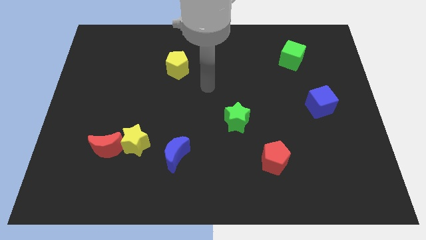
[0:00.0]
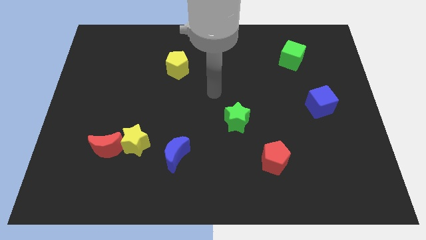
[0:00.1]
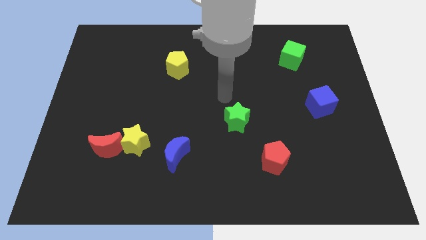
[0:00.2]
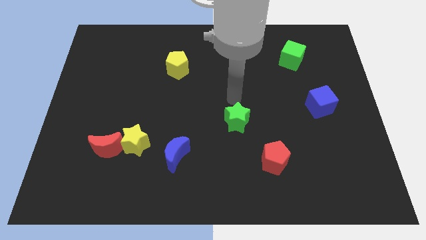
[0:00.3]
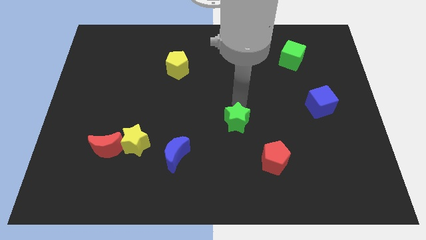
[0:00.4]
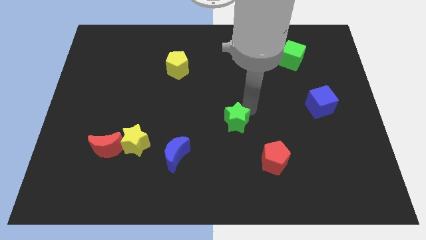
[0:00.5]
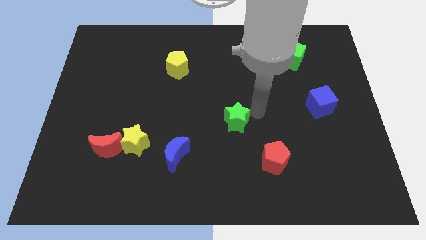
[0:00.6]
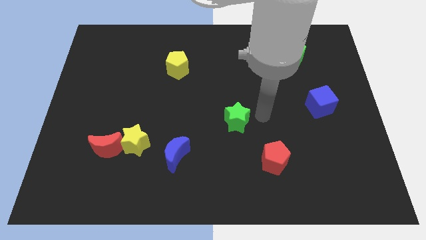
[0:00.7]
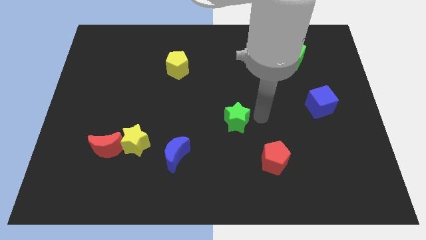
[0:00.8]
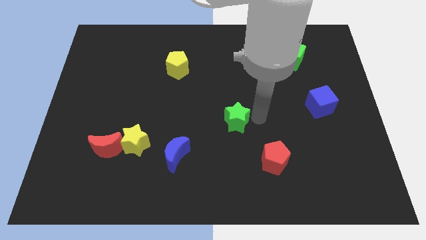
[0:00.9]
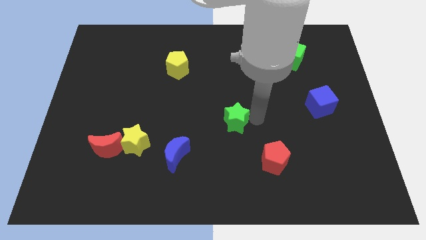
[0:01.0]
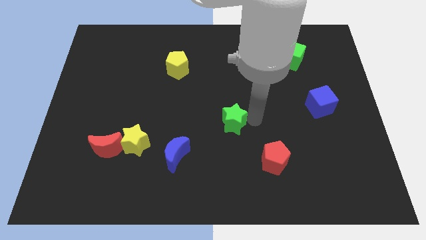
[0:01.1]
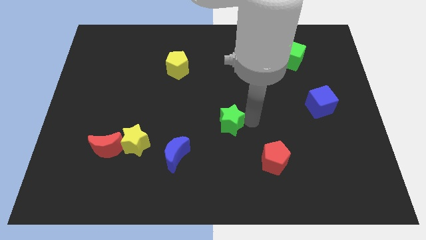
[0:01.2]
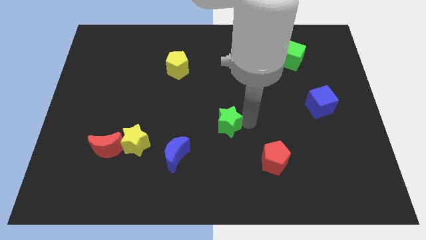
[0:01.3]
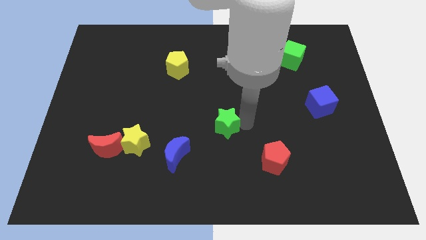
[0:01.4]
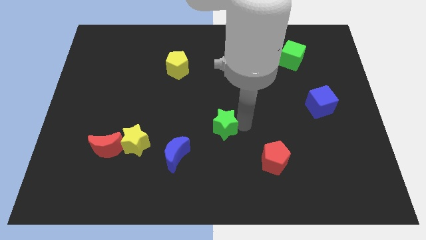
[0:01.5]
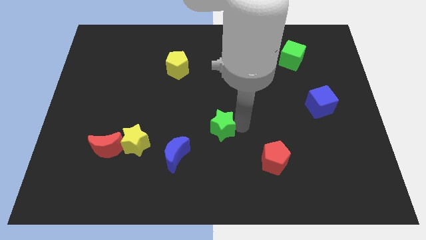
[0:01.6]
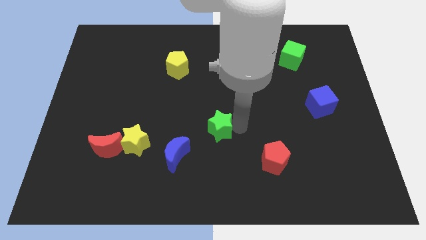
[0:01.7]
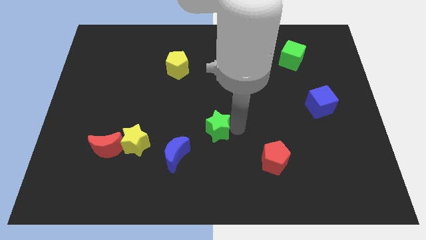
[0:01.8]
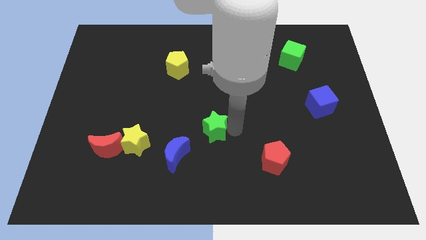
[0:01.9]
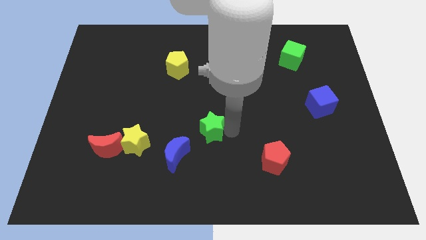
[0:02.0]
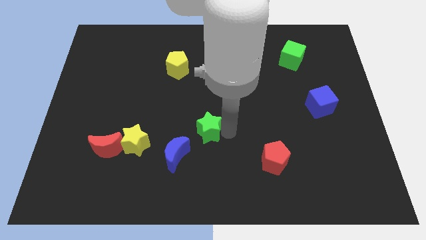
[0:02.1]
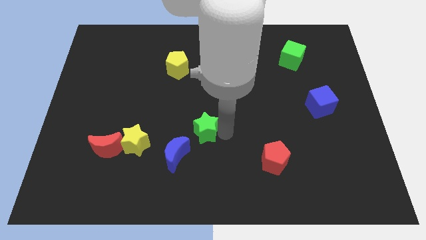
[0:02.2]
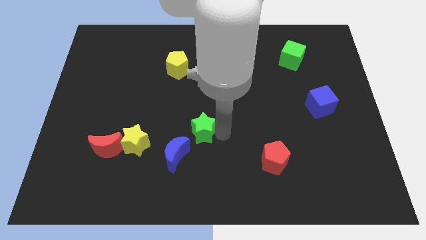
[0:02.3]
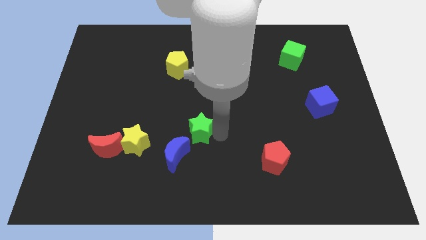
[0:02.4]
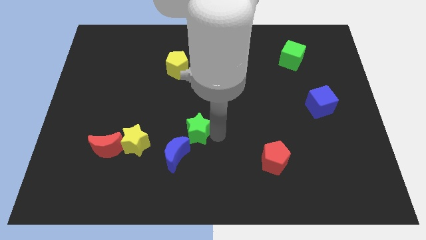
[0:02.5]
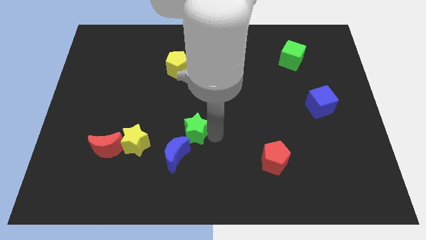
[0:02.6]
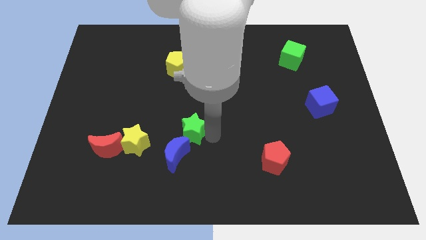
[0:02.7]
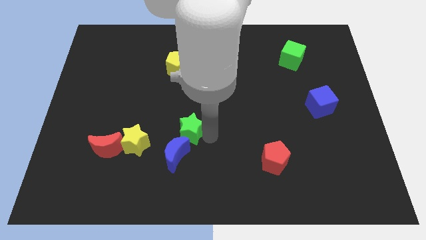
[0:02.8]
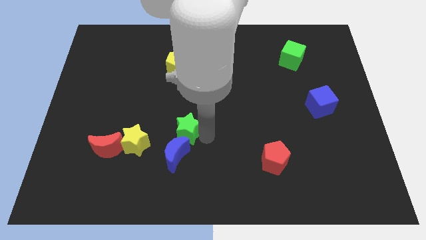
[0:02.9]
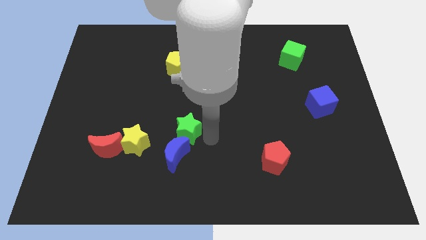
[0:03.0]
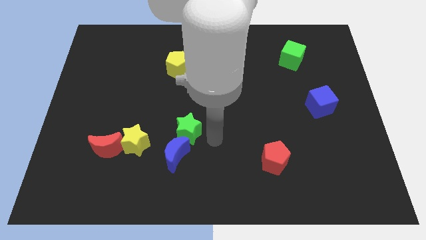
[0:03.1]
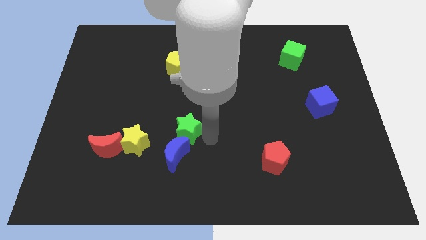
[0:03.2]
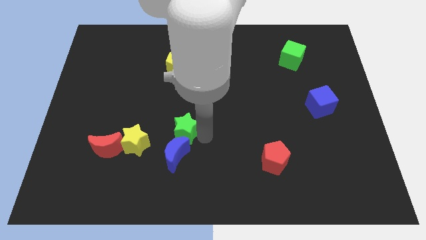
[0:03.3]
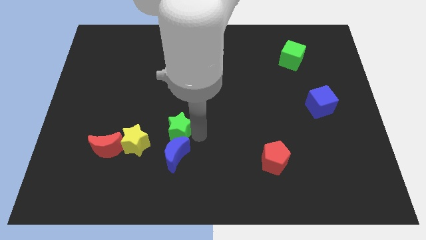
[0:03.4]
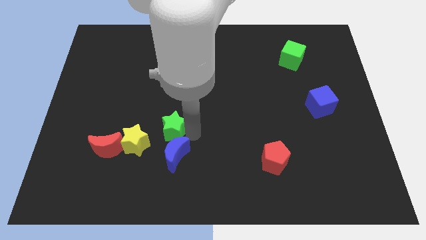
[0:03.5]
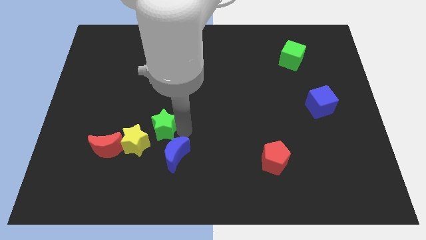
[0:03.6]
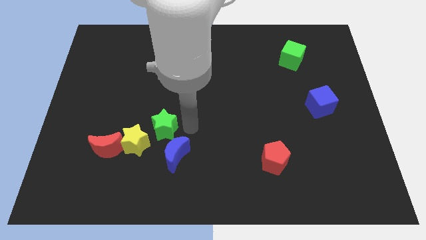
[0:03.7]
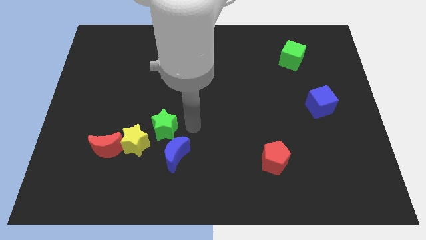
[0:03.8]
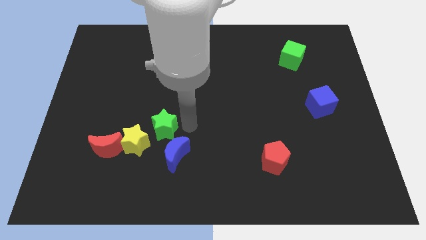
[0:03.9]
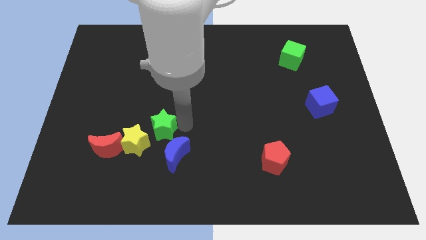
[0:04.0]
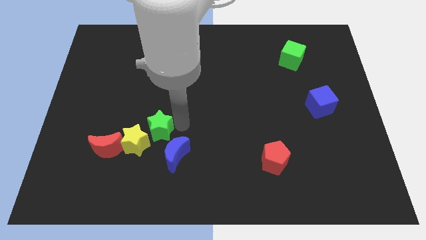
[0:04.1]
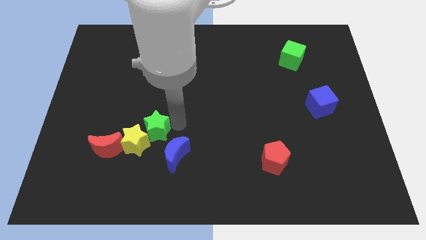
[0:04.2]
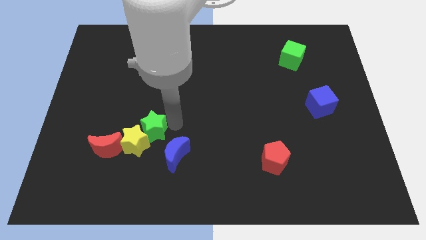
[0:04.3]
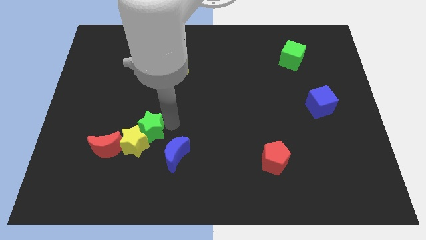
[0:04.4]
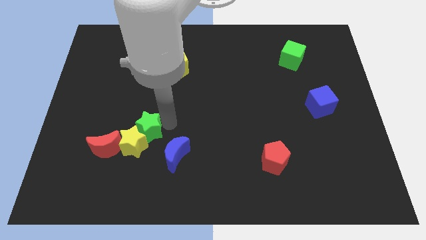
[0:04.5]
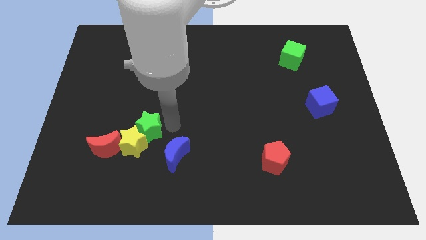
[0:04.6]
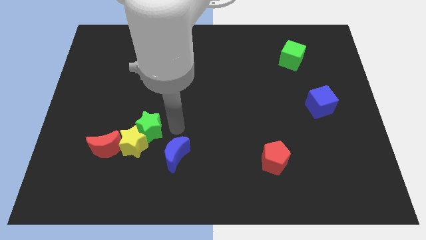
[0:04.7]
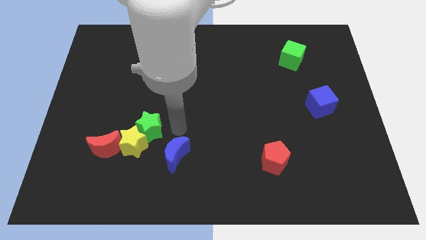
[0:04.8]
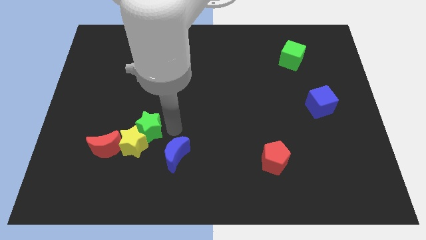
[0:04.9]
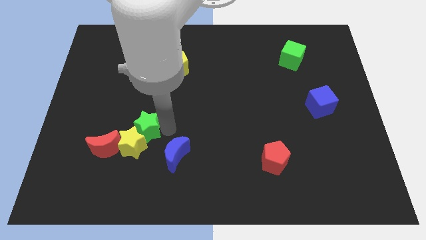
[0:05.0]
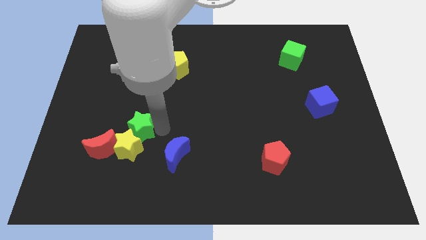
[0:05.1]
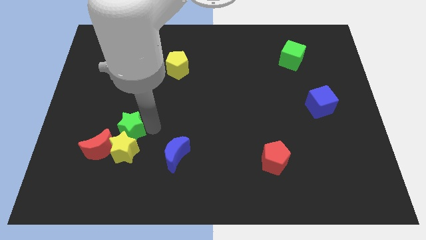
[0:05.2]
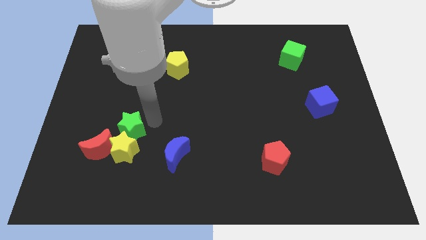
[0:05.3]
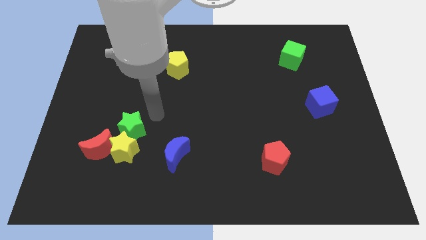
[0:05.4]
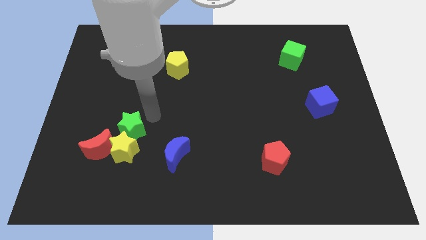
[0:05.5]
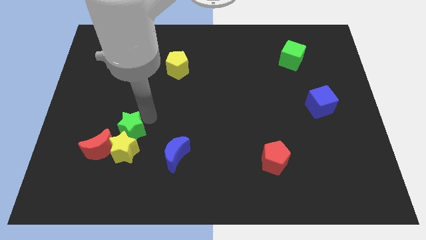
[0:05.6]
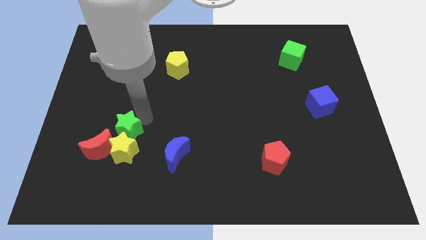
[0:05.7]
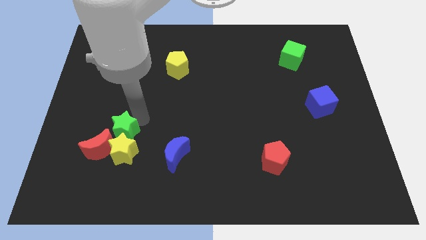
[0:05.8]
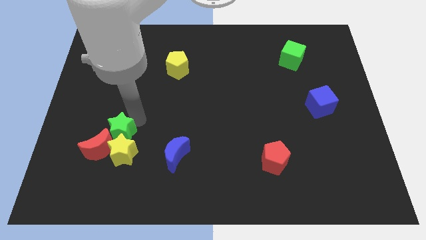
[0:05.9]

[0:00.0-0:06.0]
slide the green star next to the red moon

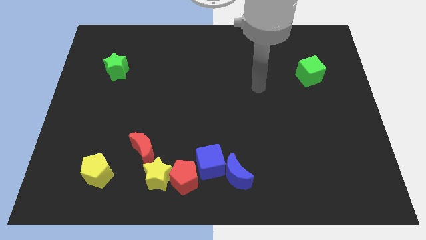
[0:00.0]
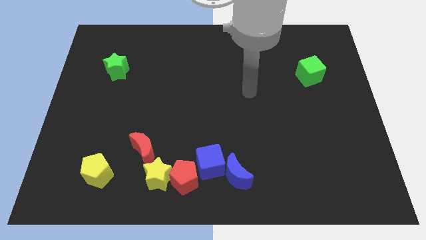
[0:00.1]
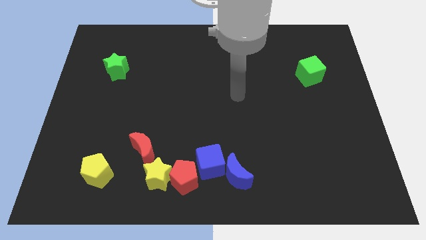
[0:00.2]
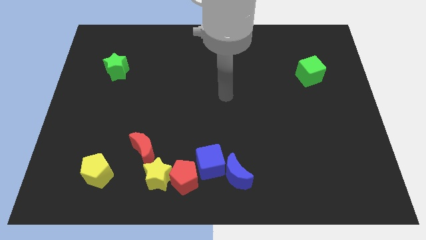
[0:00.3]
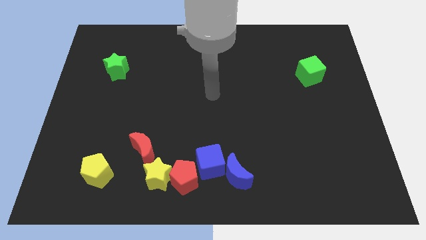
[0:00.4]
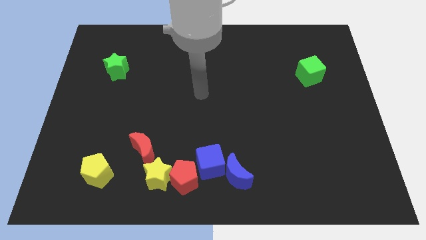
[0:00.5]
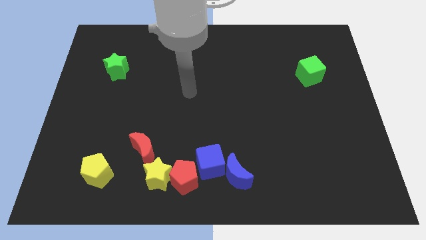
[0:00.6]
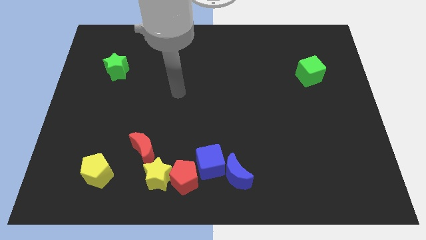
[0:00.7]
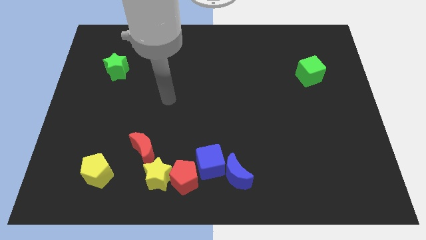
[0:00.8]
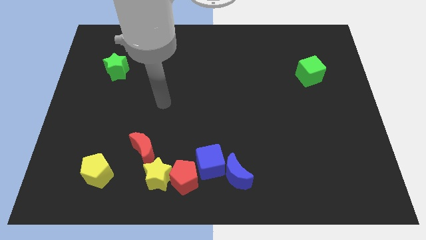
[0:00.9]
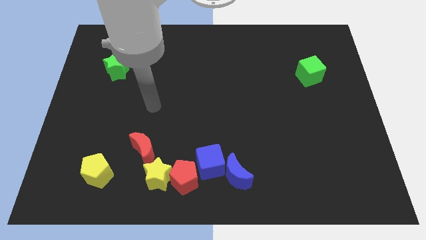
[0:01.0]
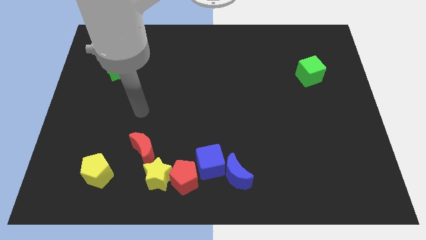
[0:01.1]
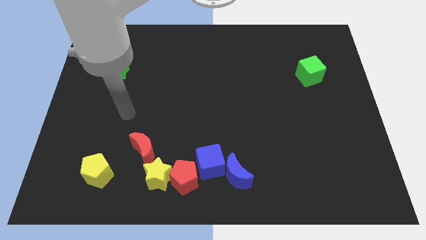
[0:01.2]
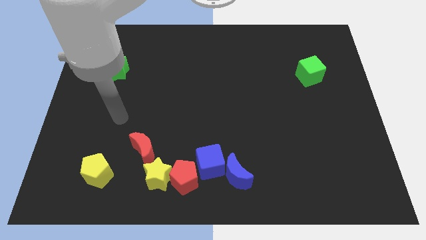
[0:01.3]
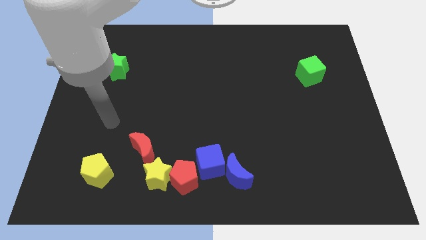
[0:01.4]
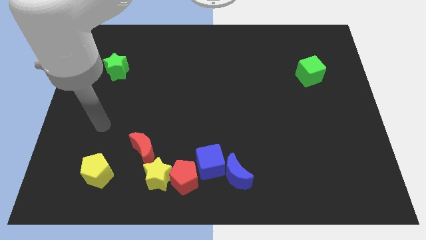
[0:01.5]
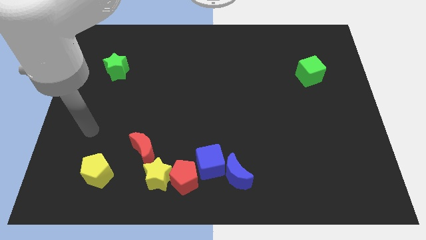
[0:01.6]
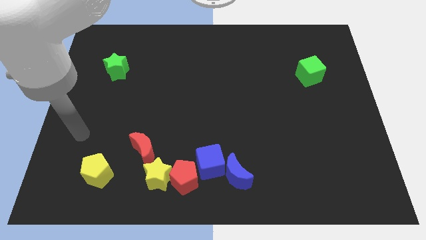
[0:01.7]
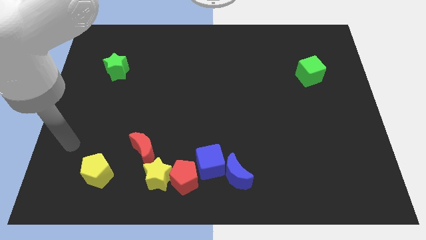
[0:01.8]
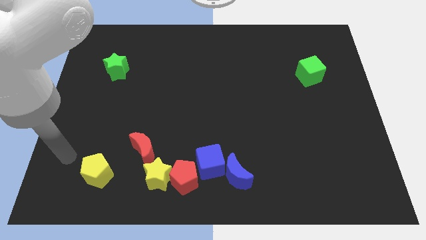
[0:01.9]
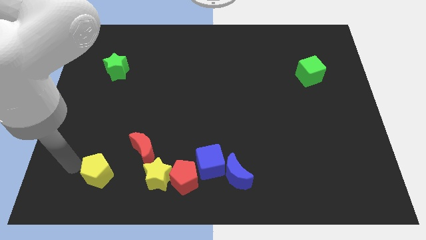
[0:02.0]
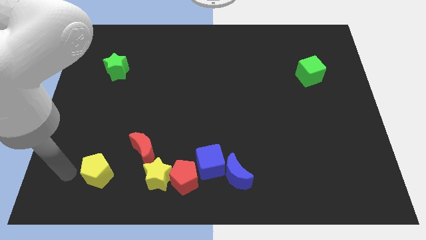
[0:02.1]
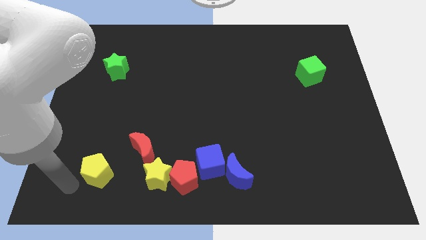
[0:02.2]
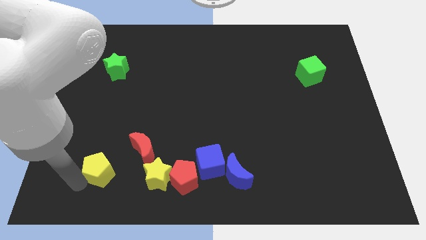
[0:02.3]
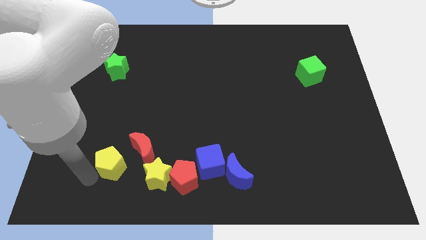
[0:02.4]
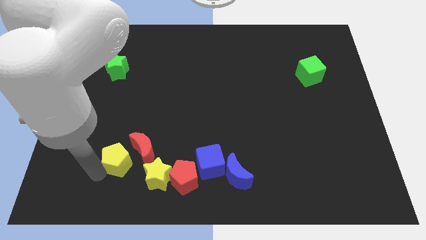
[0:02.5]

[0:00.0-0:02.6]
put the yellow pentagon next to the red moon
